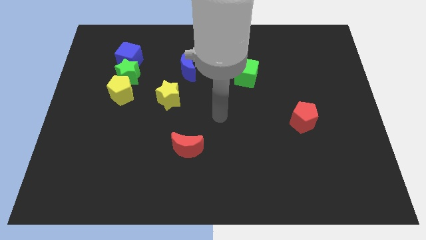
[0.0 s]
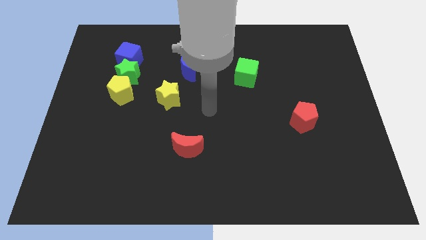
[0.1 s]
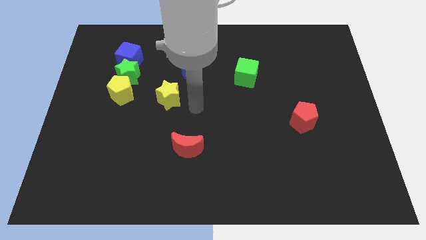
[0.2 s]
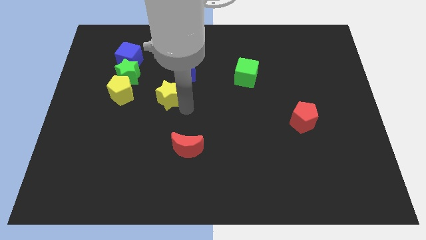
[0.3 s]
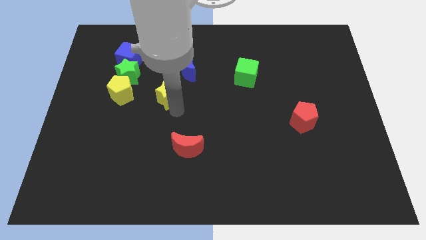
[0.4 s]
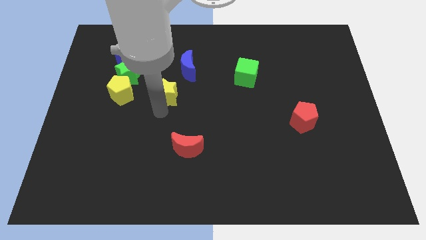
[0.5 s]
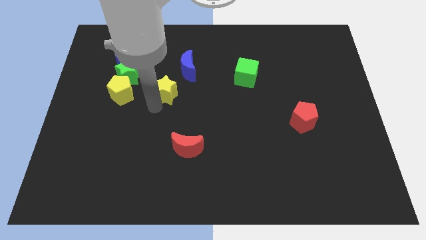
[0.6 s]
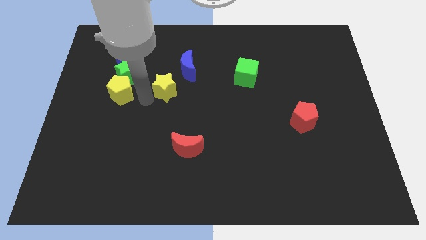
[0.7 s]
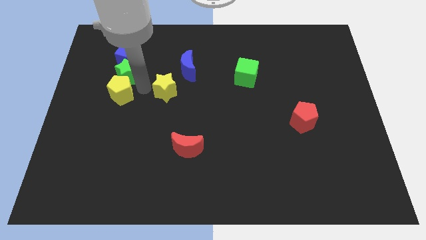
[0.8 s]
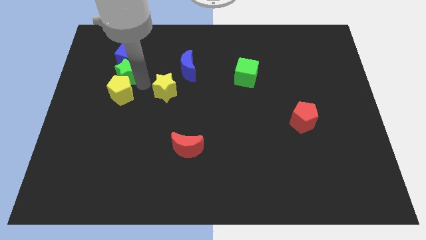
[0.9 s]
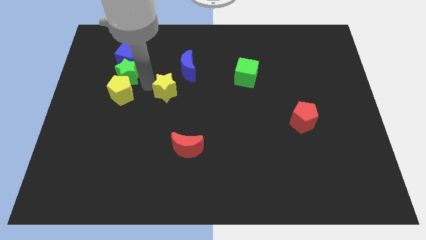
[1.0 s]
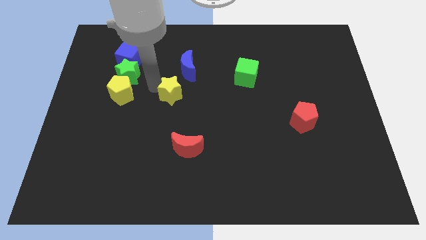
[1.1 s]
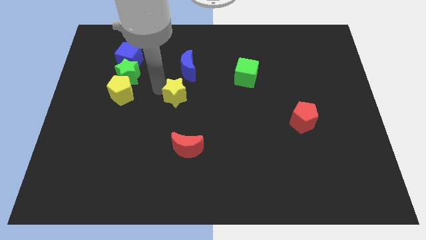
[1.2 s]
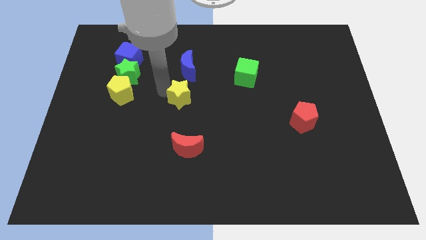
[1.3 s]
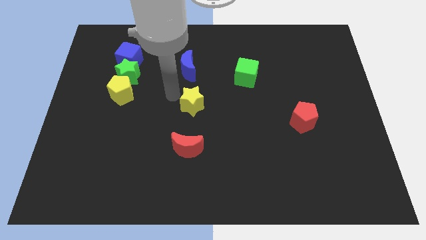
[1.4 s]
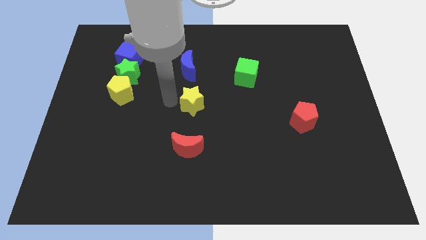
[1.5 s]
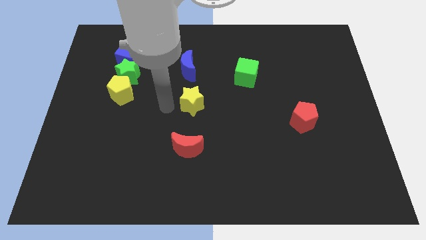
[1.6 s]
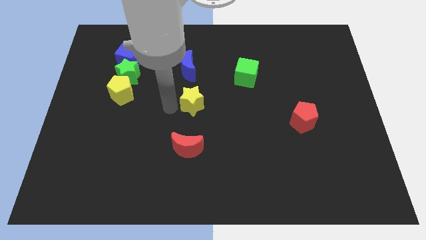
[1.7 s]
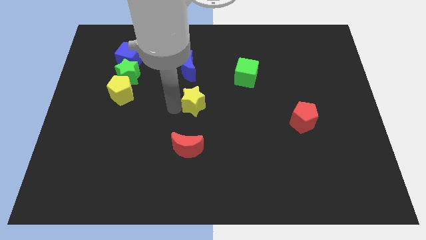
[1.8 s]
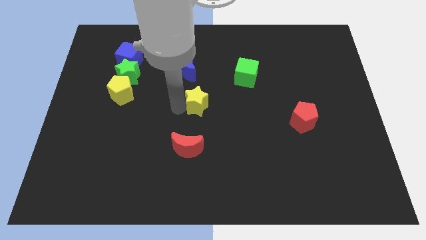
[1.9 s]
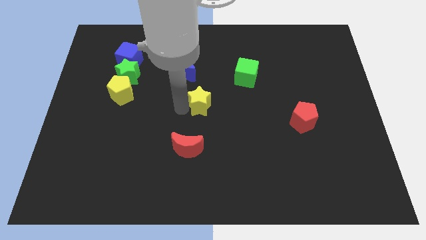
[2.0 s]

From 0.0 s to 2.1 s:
move the yellow star a little right

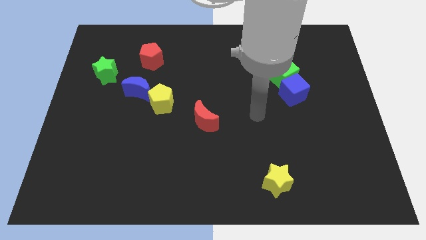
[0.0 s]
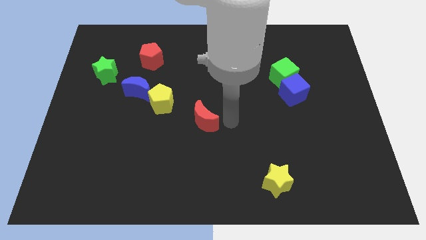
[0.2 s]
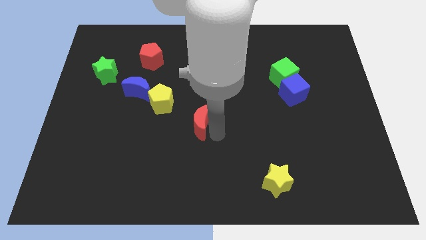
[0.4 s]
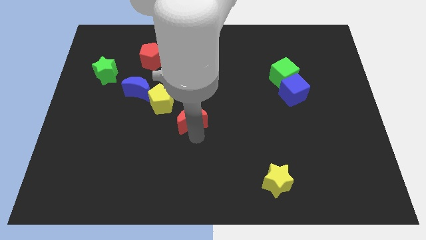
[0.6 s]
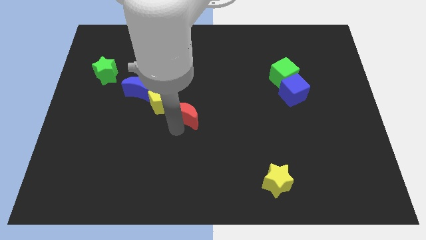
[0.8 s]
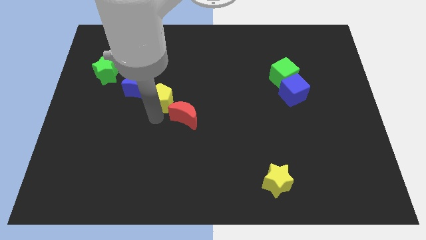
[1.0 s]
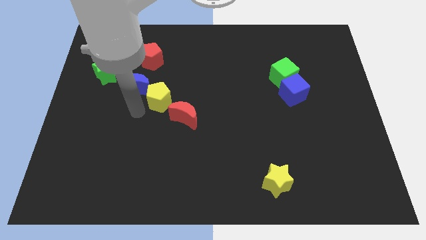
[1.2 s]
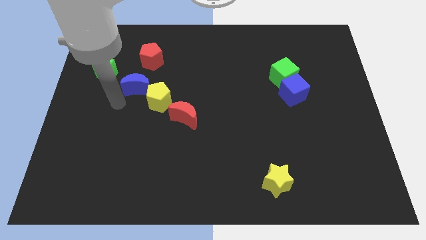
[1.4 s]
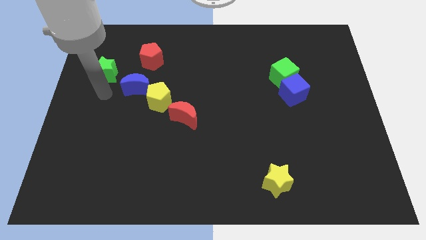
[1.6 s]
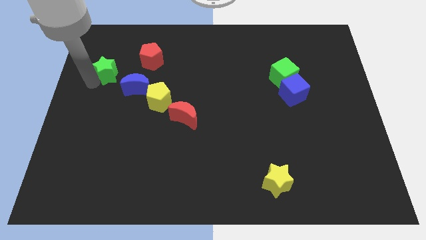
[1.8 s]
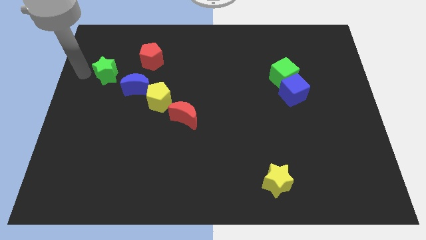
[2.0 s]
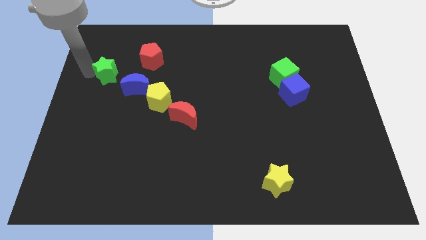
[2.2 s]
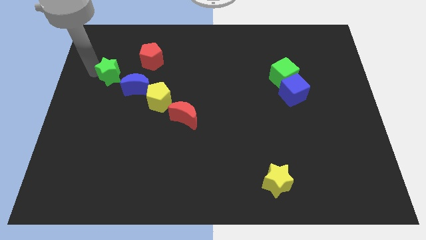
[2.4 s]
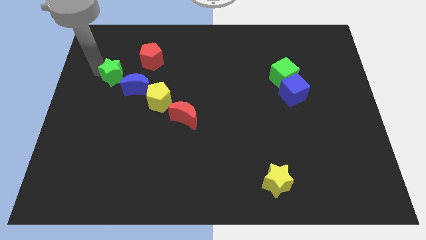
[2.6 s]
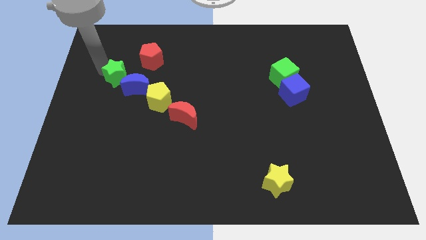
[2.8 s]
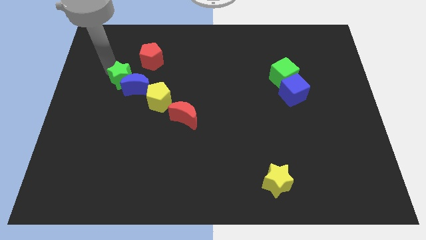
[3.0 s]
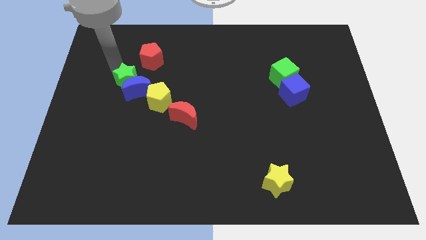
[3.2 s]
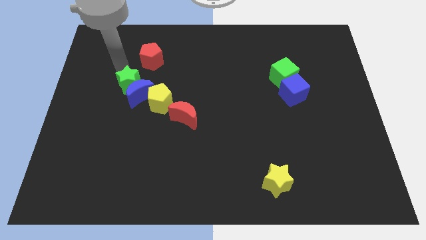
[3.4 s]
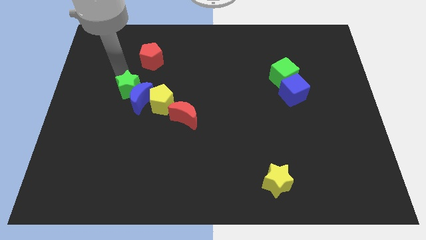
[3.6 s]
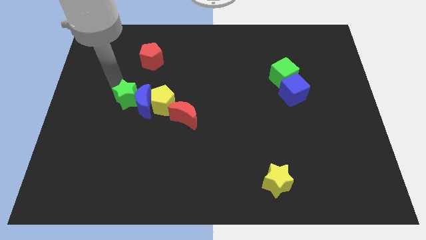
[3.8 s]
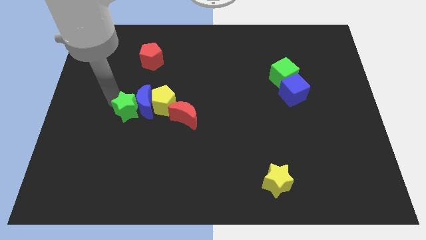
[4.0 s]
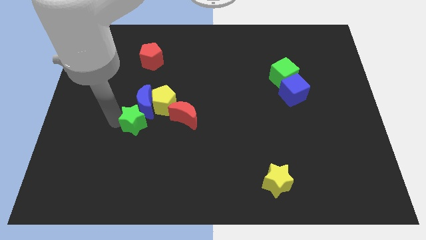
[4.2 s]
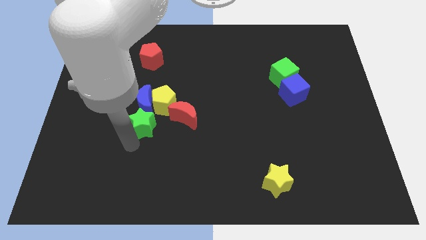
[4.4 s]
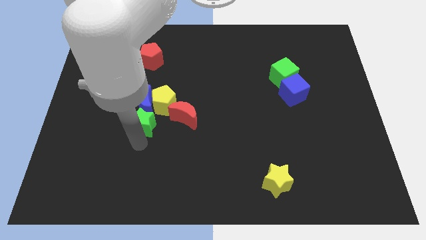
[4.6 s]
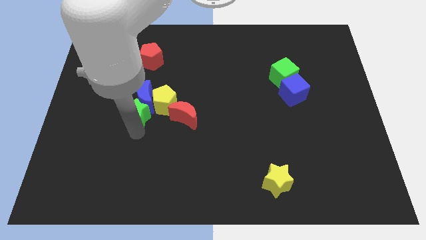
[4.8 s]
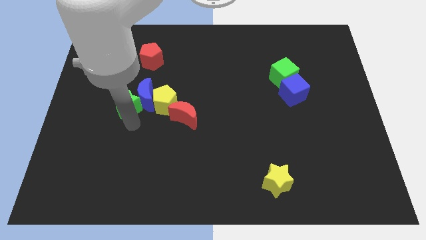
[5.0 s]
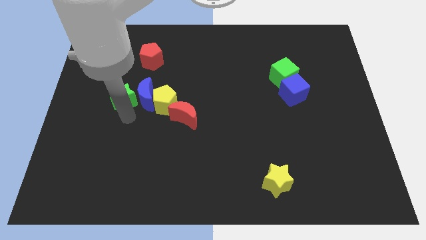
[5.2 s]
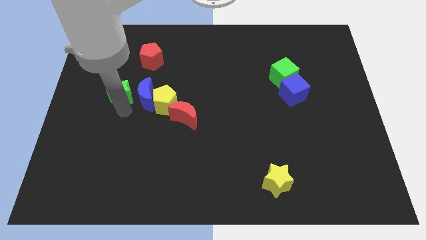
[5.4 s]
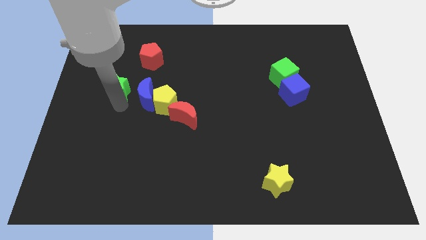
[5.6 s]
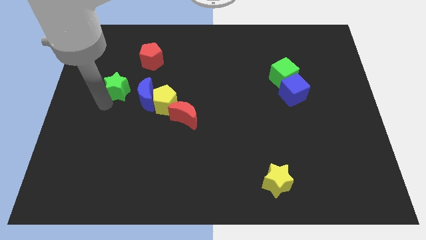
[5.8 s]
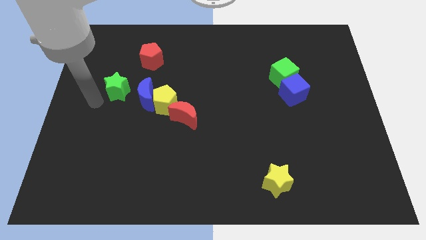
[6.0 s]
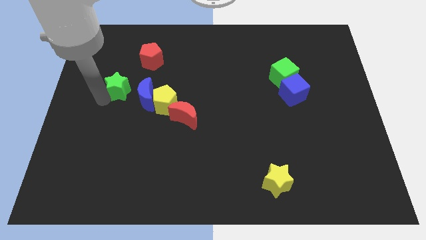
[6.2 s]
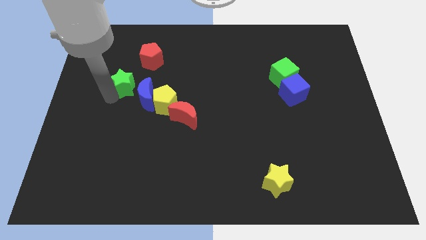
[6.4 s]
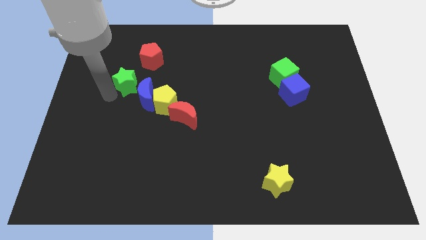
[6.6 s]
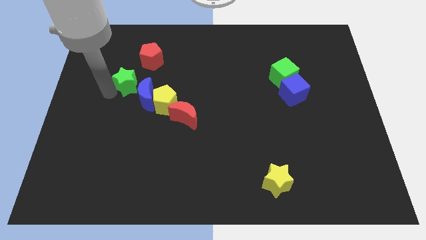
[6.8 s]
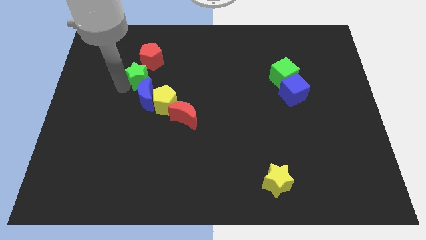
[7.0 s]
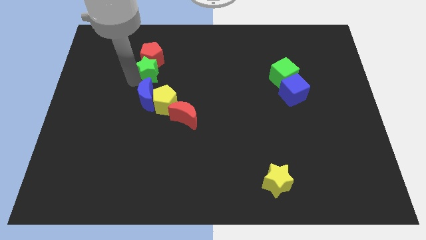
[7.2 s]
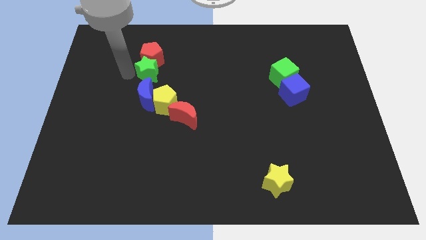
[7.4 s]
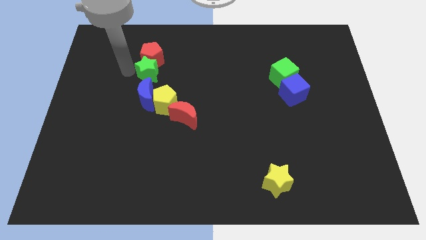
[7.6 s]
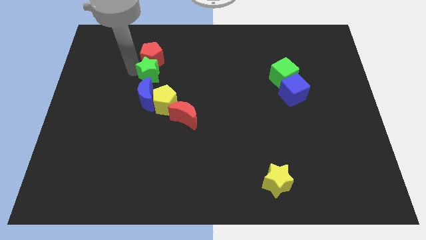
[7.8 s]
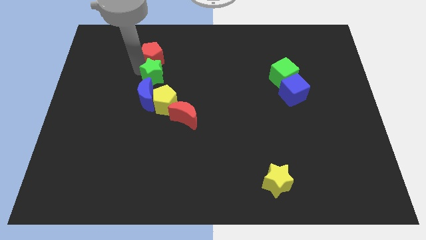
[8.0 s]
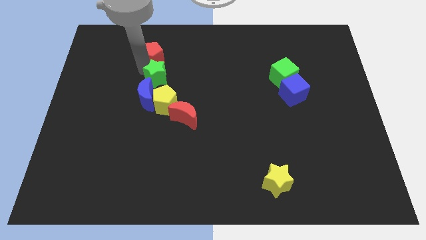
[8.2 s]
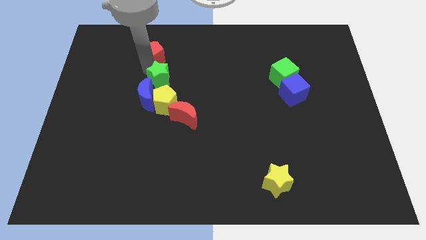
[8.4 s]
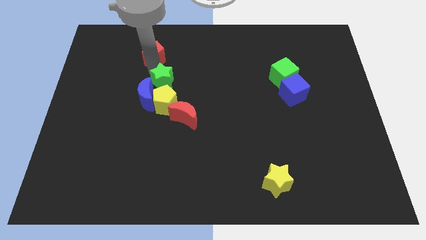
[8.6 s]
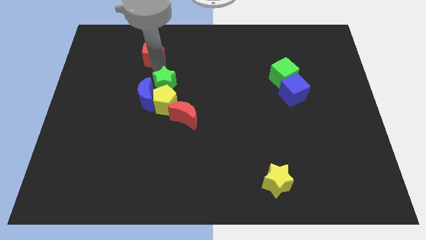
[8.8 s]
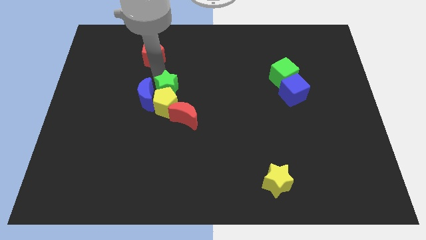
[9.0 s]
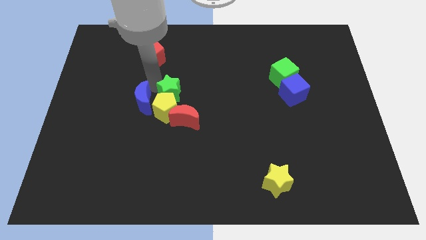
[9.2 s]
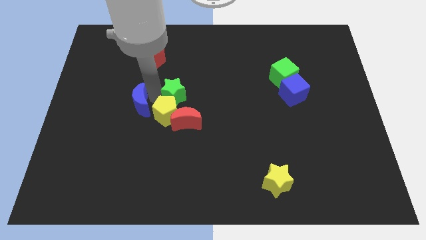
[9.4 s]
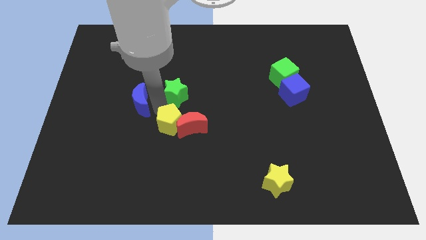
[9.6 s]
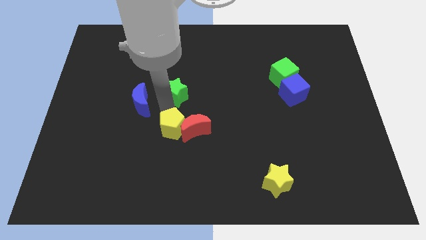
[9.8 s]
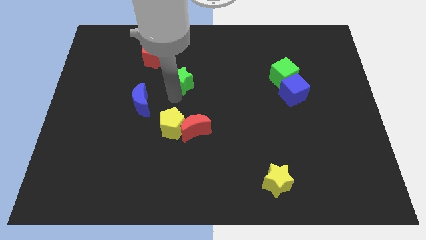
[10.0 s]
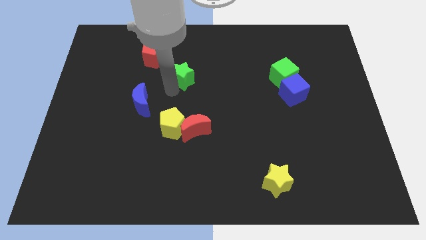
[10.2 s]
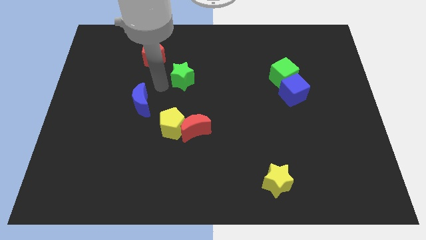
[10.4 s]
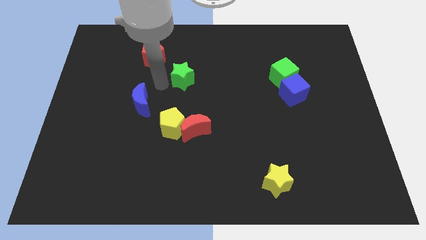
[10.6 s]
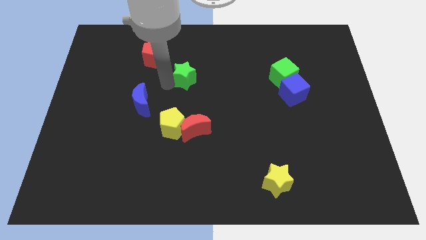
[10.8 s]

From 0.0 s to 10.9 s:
slide the green star right

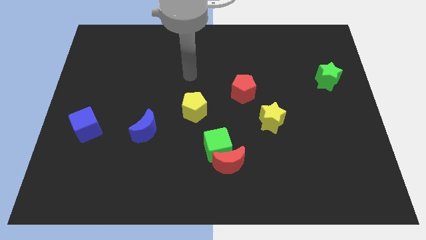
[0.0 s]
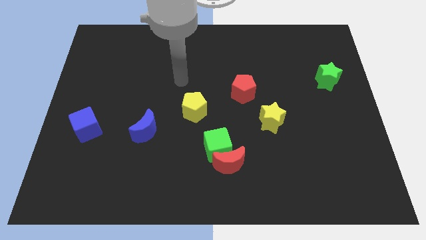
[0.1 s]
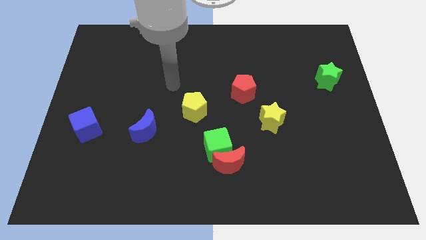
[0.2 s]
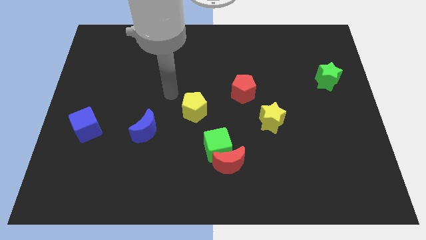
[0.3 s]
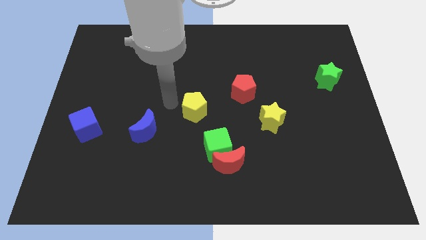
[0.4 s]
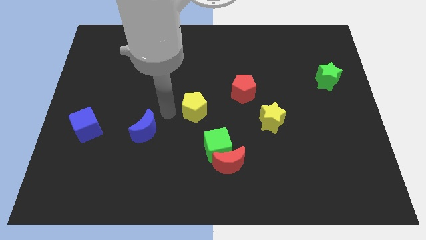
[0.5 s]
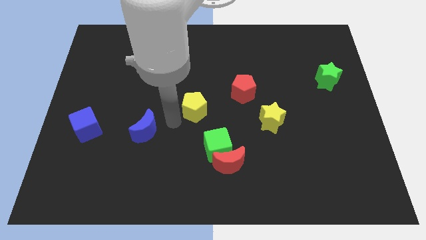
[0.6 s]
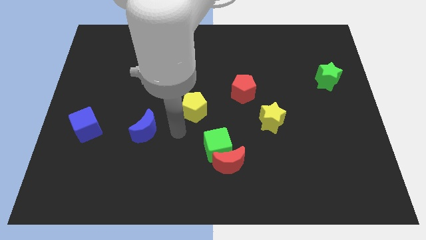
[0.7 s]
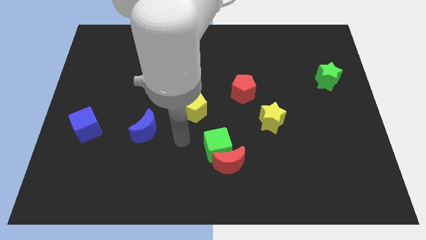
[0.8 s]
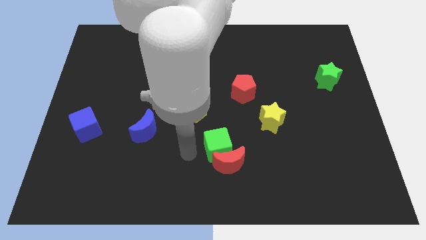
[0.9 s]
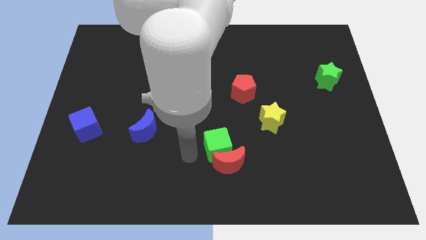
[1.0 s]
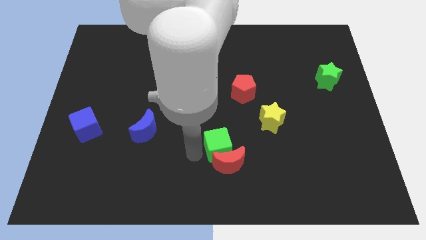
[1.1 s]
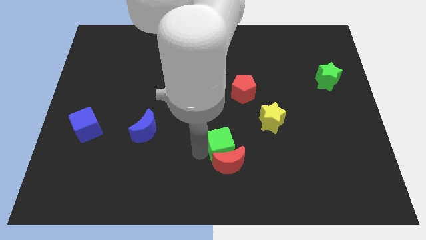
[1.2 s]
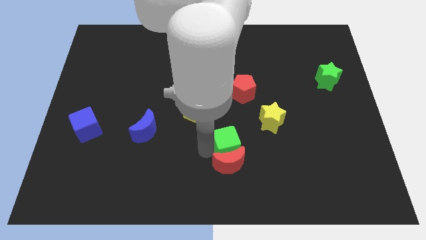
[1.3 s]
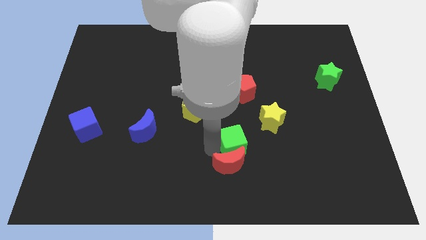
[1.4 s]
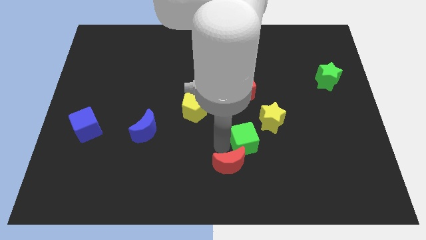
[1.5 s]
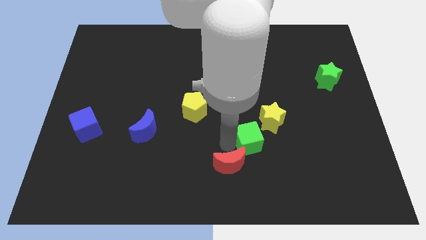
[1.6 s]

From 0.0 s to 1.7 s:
move the green cube to the right slightly
